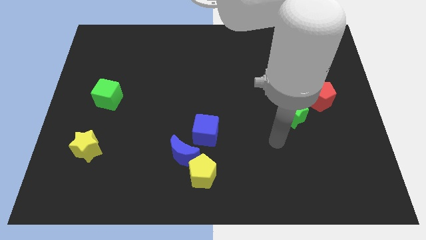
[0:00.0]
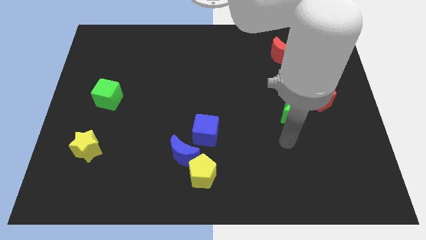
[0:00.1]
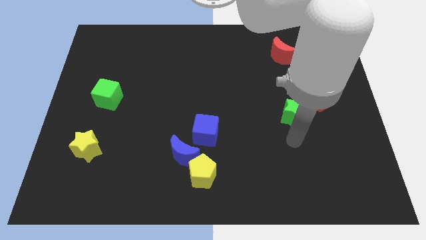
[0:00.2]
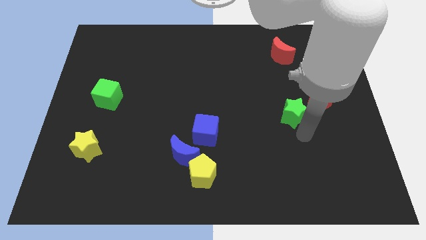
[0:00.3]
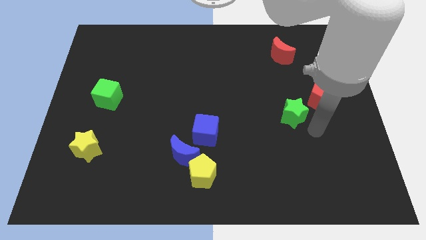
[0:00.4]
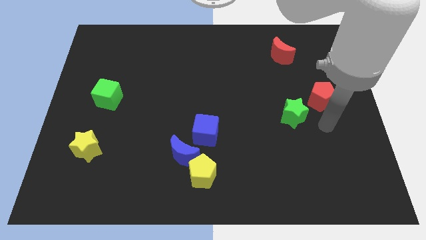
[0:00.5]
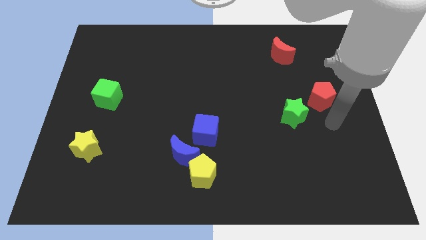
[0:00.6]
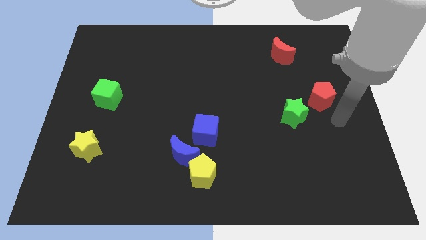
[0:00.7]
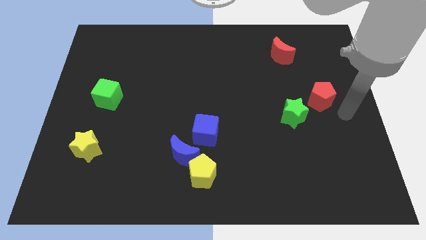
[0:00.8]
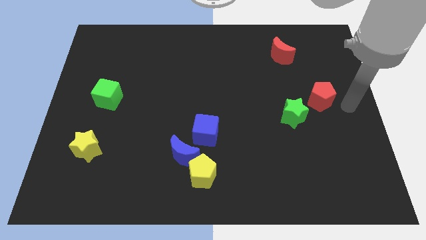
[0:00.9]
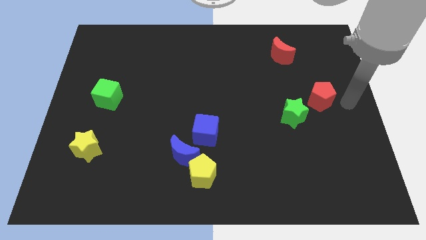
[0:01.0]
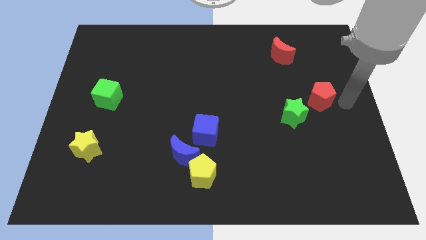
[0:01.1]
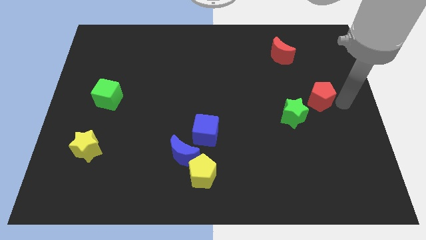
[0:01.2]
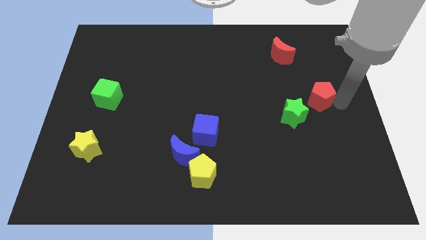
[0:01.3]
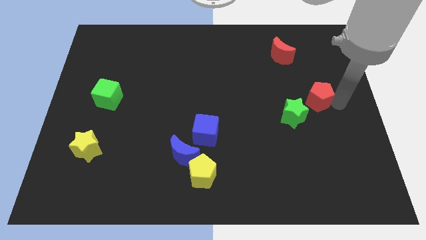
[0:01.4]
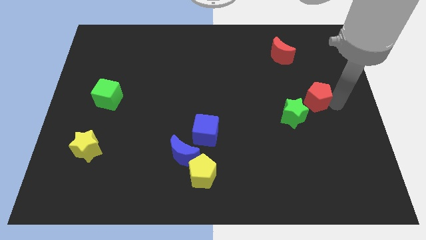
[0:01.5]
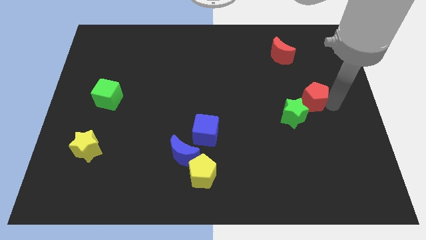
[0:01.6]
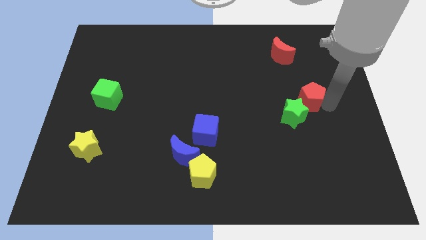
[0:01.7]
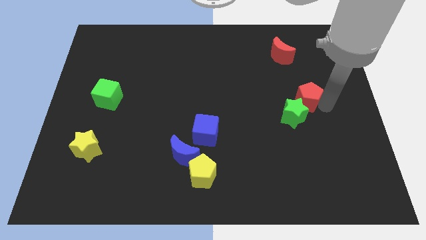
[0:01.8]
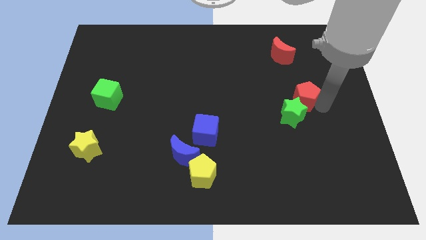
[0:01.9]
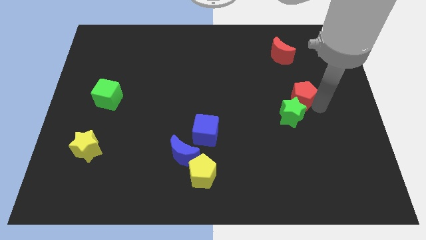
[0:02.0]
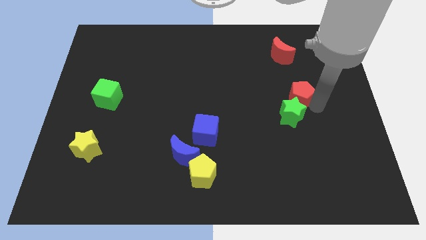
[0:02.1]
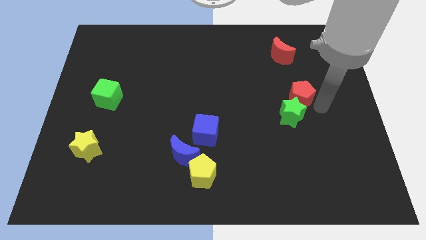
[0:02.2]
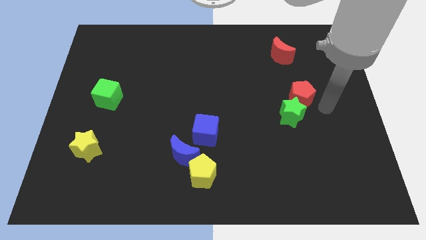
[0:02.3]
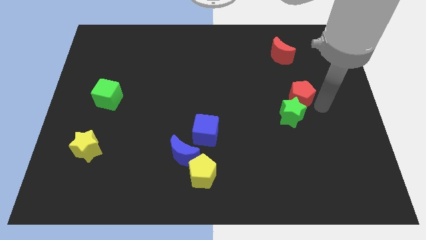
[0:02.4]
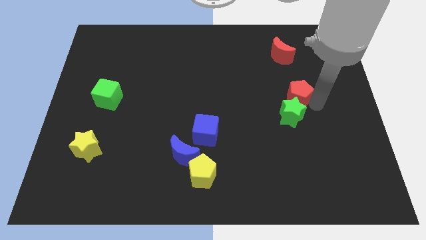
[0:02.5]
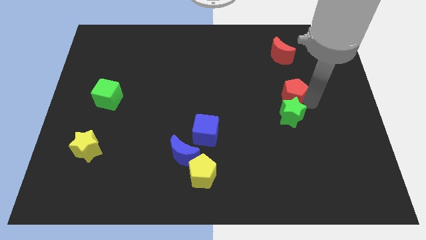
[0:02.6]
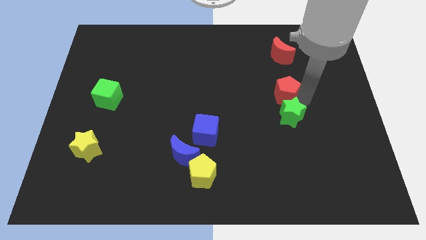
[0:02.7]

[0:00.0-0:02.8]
move the red pentagon a bit to the left

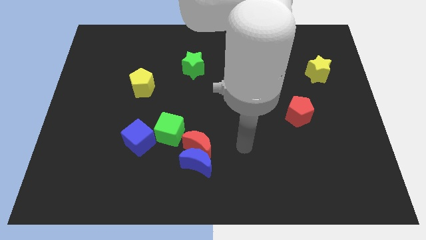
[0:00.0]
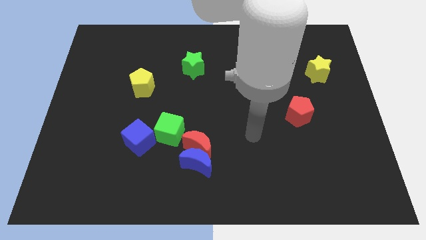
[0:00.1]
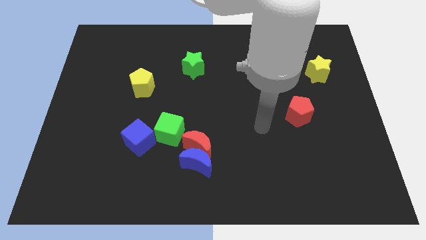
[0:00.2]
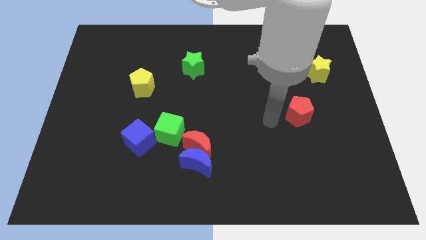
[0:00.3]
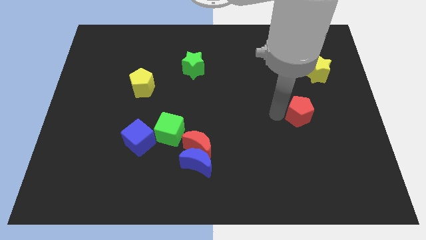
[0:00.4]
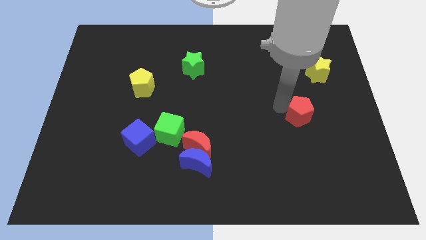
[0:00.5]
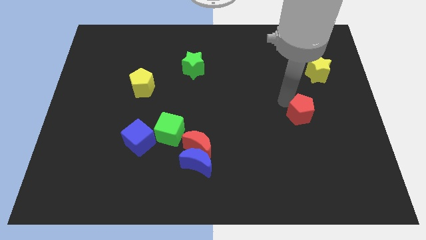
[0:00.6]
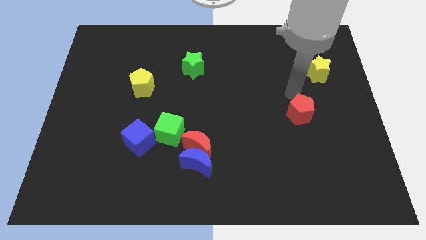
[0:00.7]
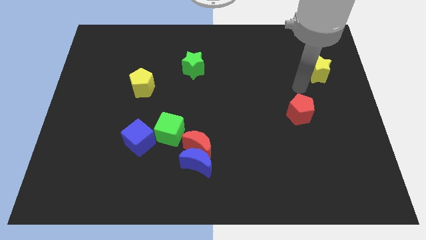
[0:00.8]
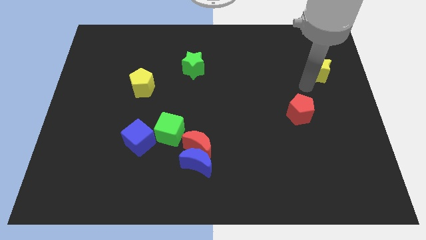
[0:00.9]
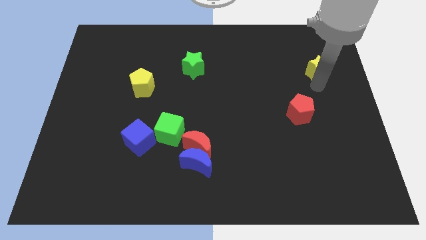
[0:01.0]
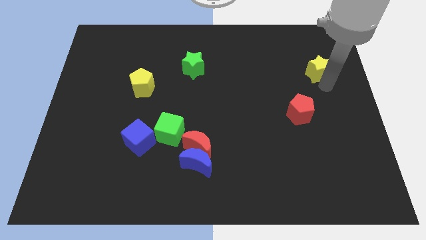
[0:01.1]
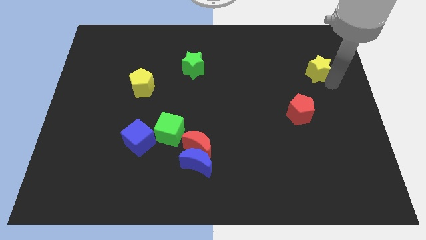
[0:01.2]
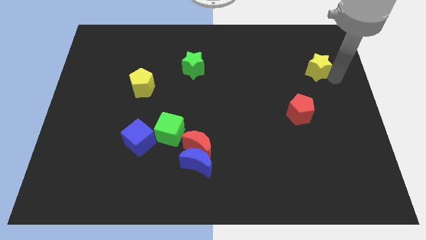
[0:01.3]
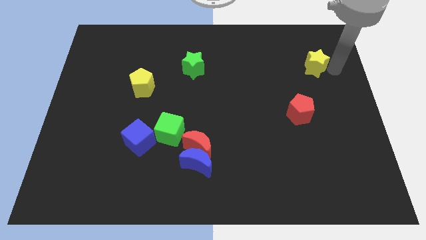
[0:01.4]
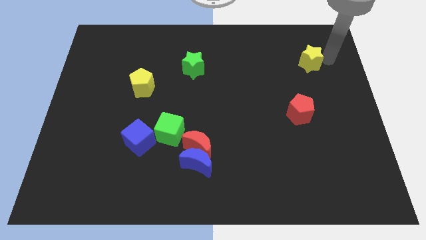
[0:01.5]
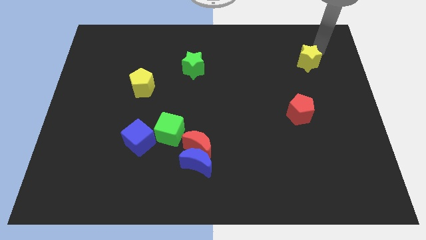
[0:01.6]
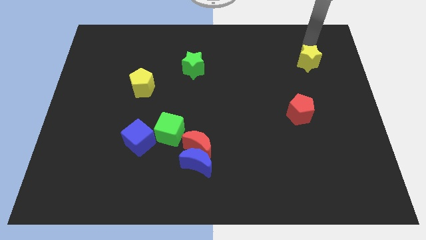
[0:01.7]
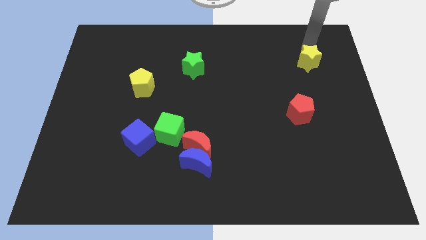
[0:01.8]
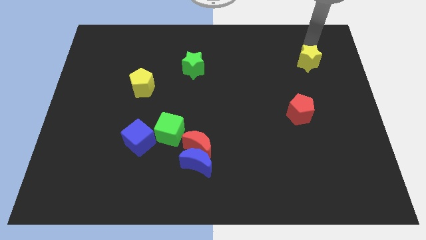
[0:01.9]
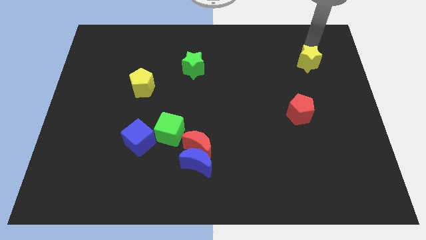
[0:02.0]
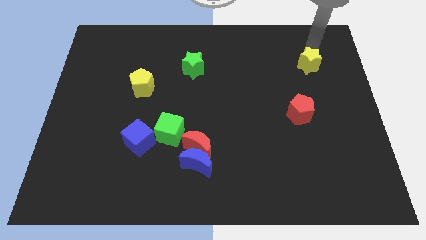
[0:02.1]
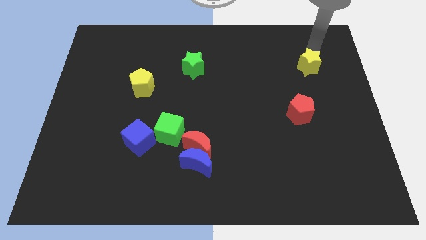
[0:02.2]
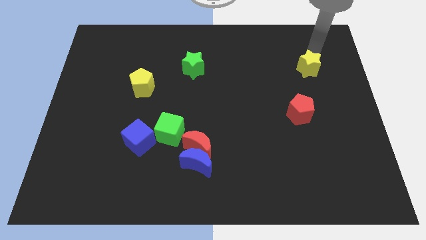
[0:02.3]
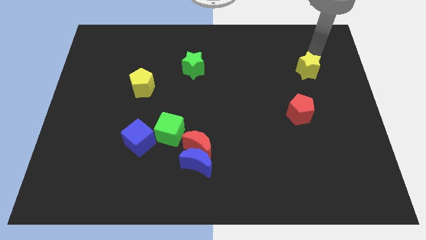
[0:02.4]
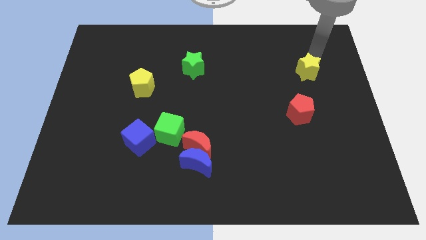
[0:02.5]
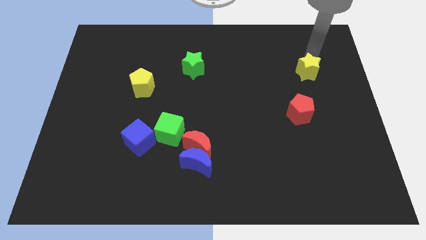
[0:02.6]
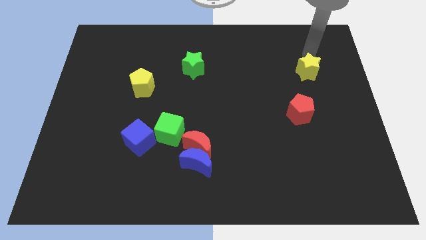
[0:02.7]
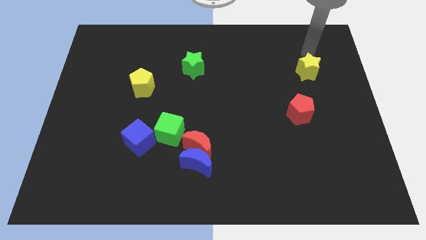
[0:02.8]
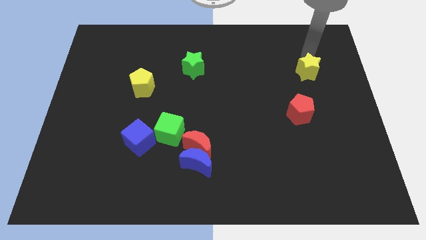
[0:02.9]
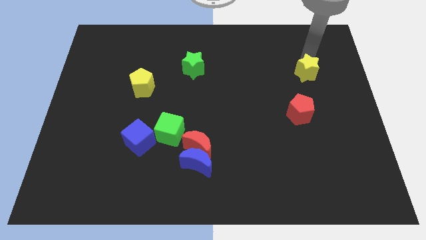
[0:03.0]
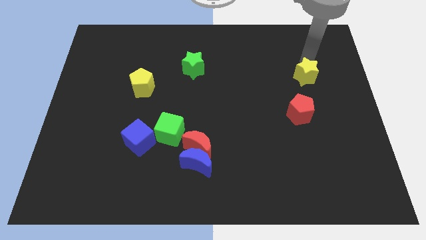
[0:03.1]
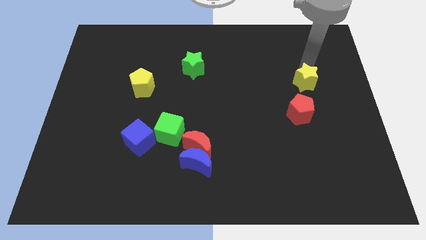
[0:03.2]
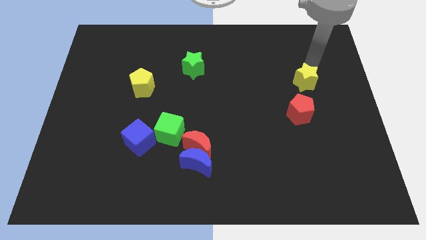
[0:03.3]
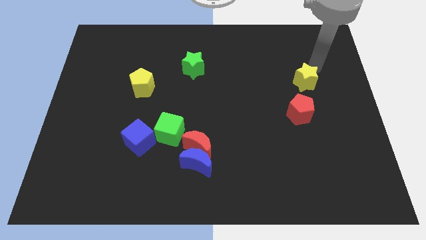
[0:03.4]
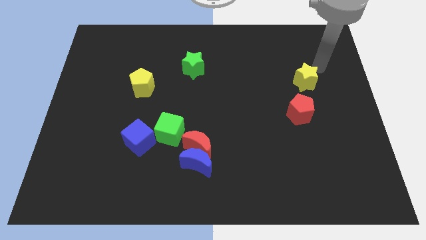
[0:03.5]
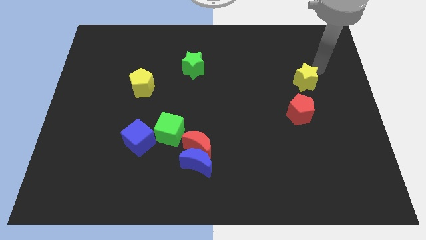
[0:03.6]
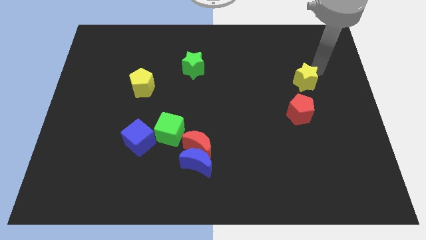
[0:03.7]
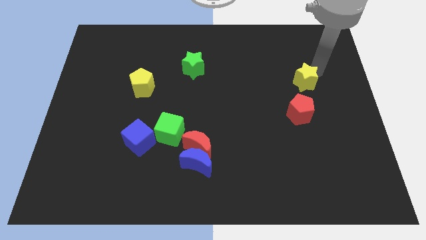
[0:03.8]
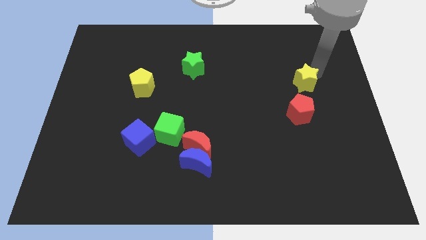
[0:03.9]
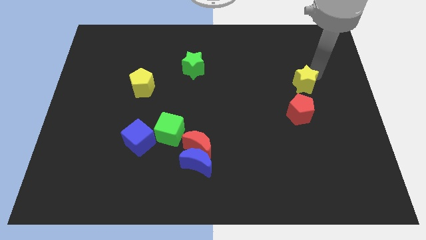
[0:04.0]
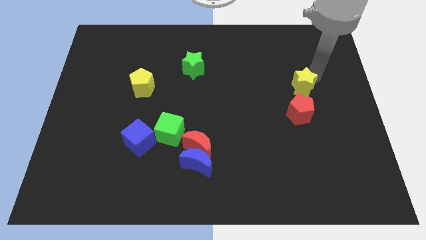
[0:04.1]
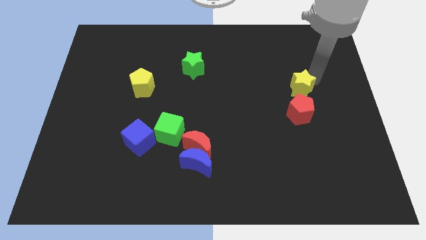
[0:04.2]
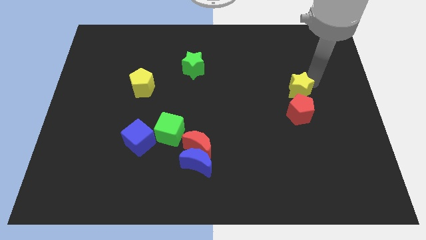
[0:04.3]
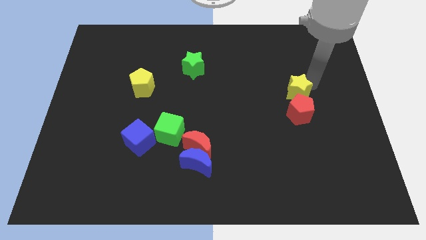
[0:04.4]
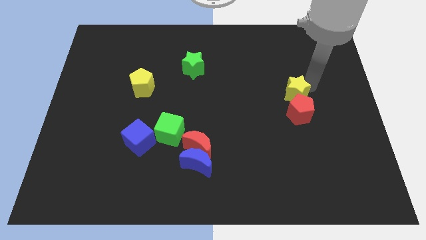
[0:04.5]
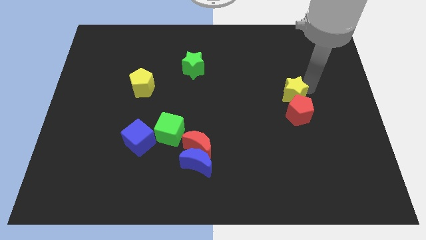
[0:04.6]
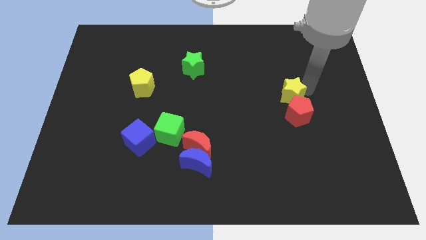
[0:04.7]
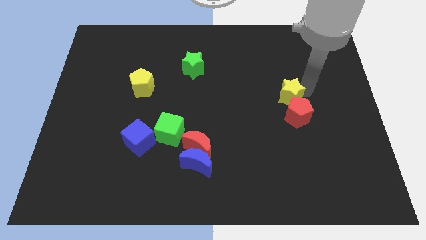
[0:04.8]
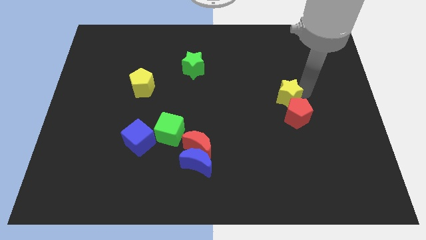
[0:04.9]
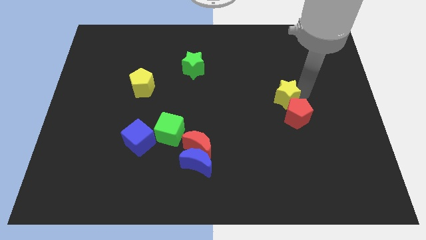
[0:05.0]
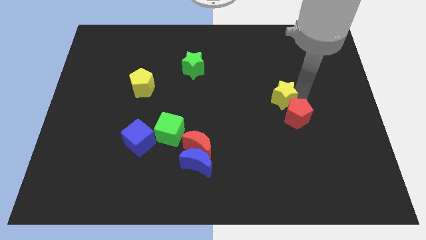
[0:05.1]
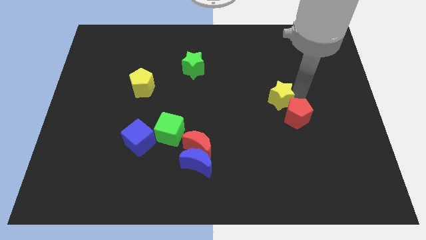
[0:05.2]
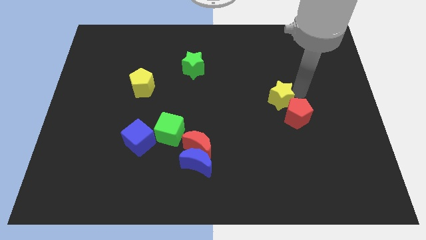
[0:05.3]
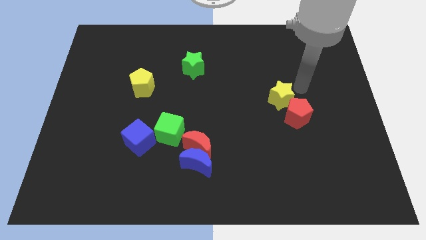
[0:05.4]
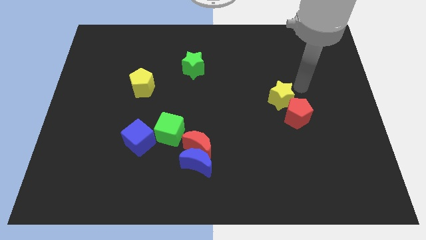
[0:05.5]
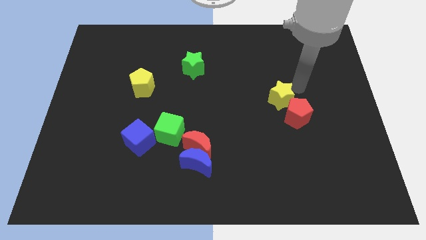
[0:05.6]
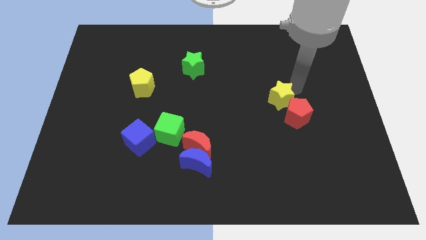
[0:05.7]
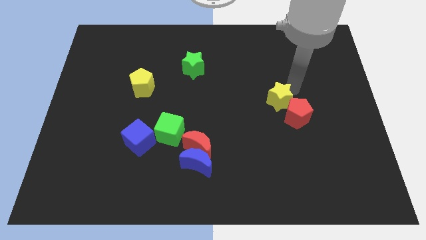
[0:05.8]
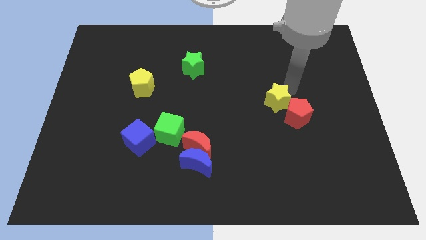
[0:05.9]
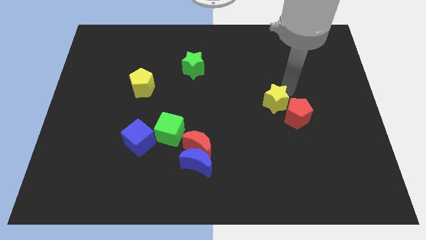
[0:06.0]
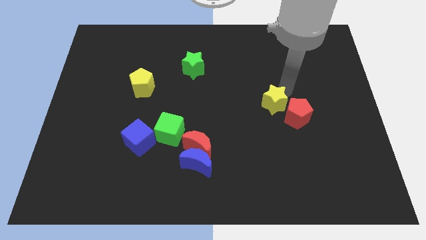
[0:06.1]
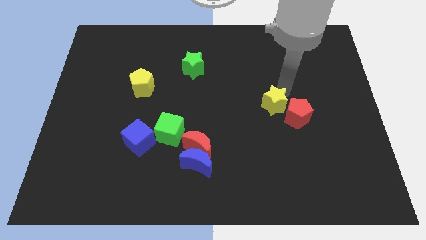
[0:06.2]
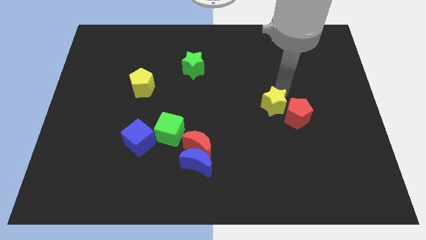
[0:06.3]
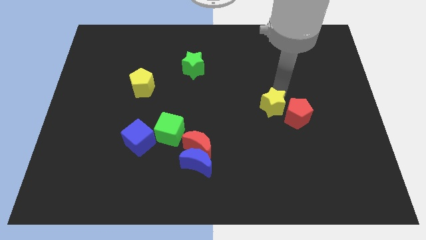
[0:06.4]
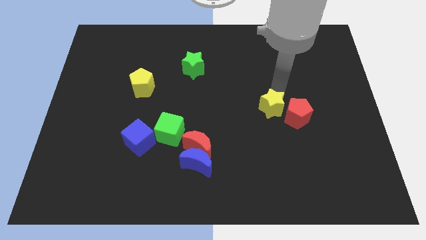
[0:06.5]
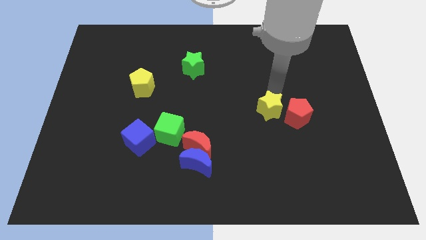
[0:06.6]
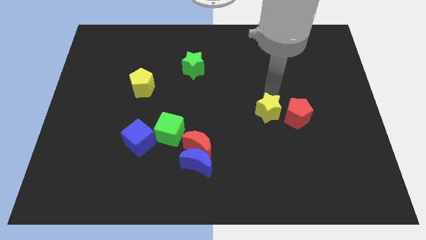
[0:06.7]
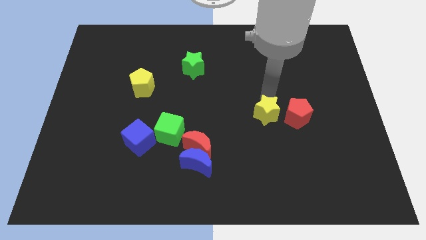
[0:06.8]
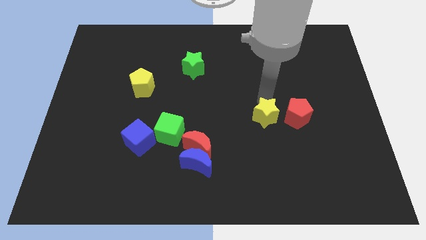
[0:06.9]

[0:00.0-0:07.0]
slide the yellow star down and to the left diagonally
